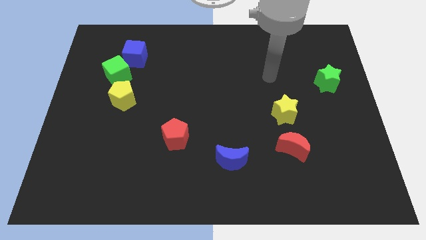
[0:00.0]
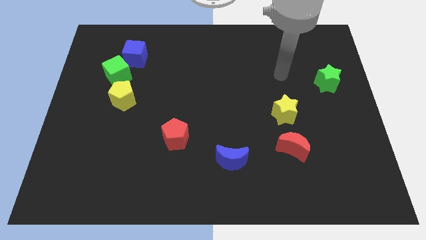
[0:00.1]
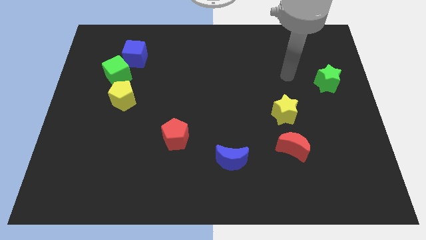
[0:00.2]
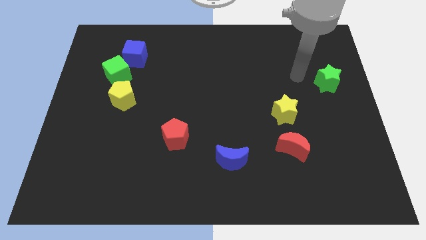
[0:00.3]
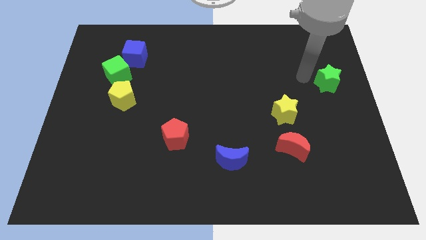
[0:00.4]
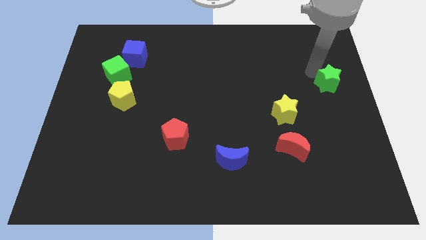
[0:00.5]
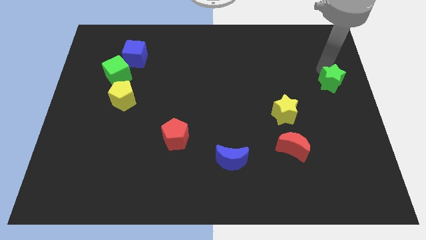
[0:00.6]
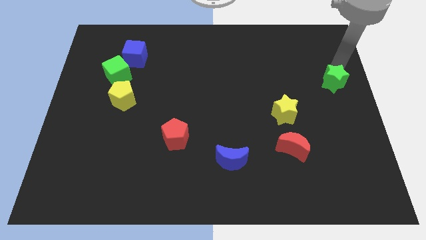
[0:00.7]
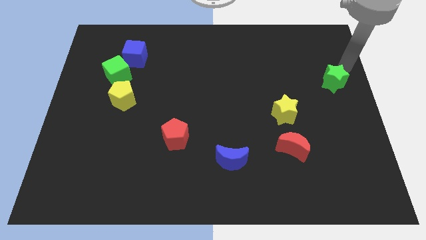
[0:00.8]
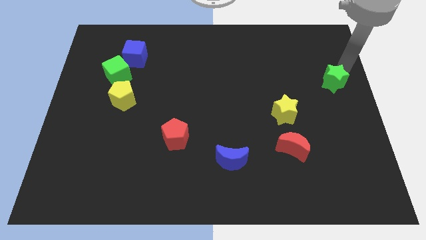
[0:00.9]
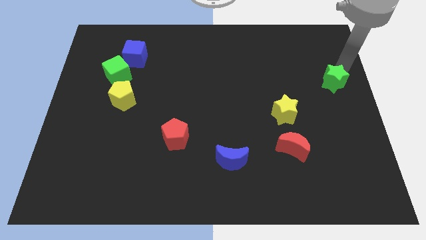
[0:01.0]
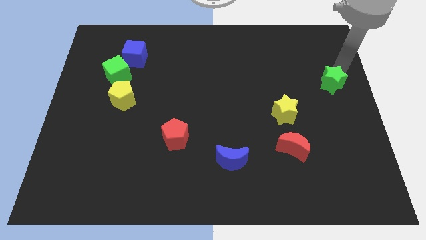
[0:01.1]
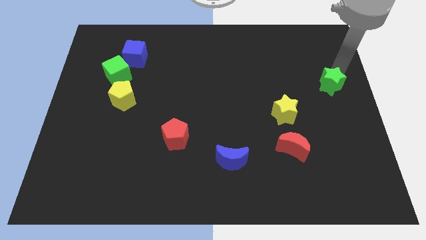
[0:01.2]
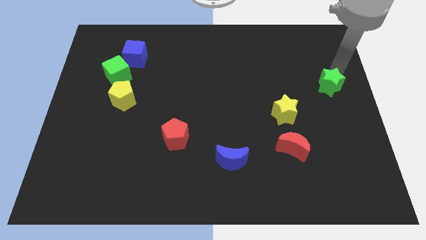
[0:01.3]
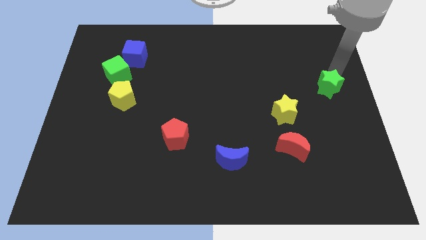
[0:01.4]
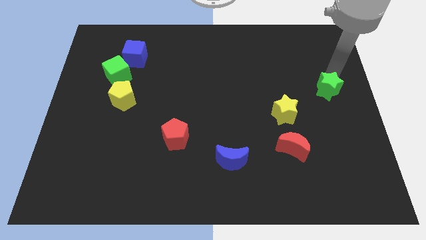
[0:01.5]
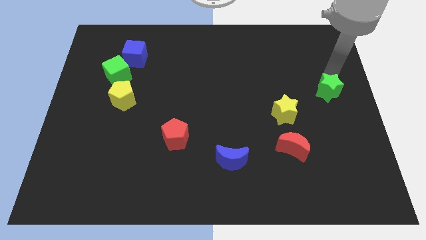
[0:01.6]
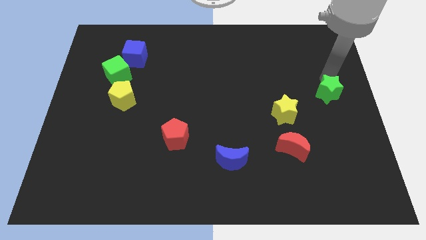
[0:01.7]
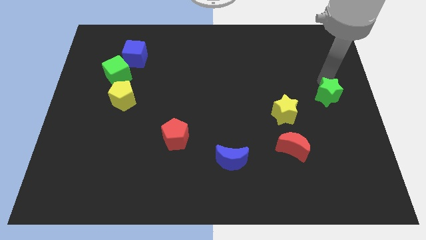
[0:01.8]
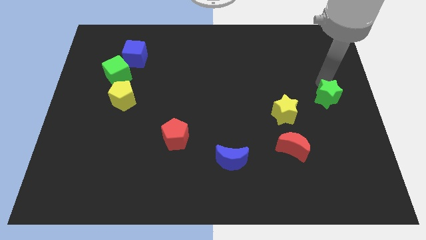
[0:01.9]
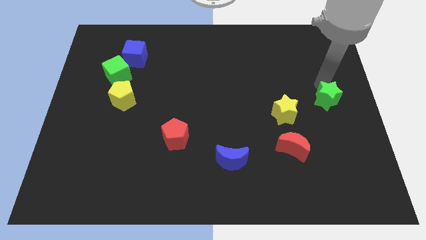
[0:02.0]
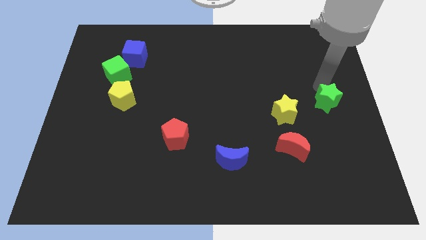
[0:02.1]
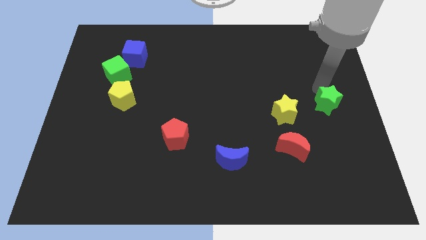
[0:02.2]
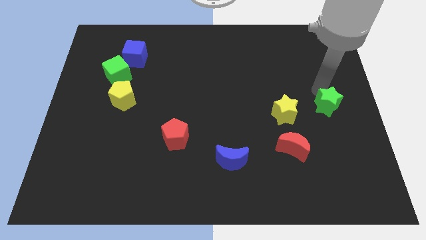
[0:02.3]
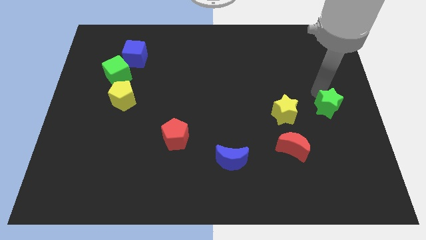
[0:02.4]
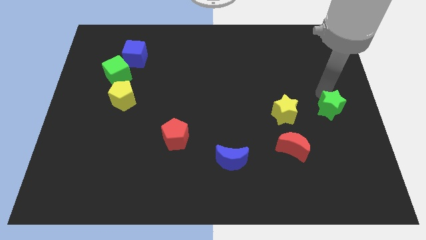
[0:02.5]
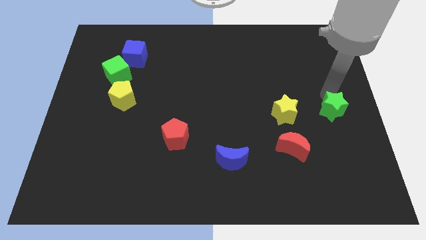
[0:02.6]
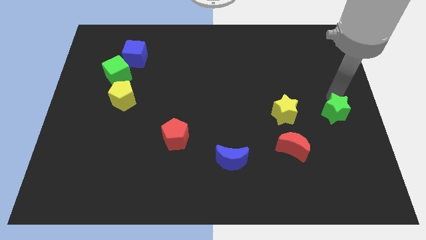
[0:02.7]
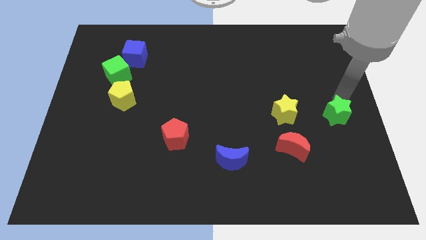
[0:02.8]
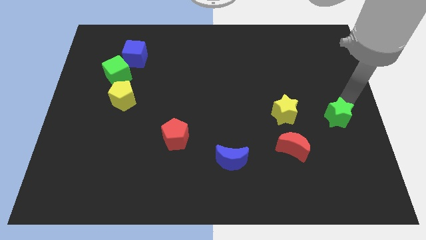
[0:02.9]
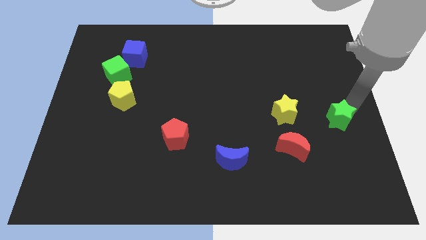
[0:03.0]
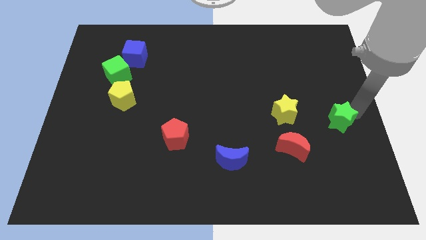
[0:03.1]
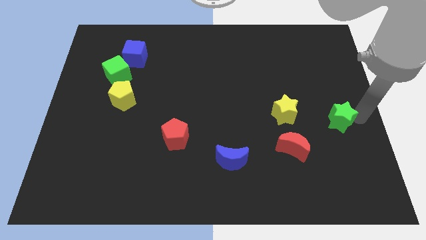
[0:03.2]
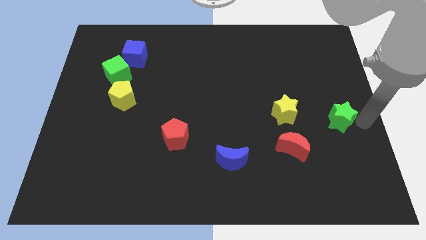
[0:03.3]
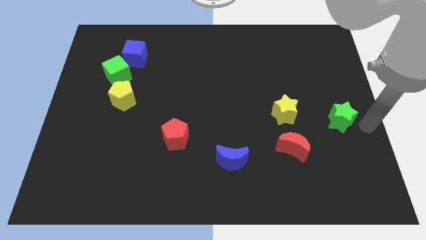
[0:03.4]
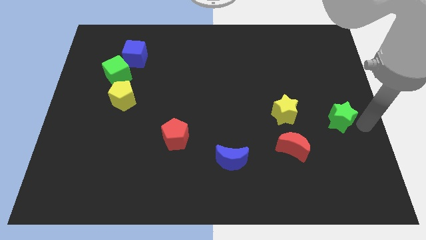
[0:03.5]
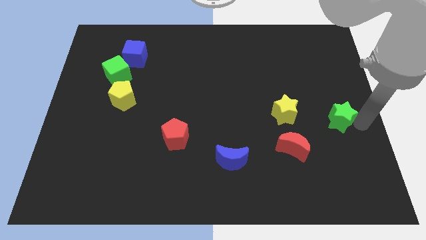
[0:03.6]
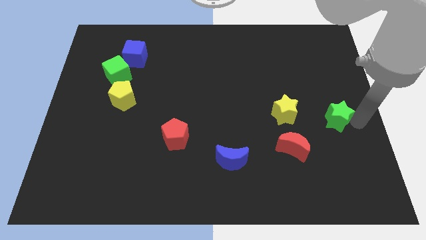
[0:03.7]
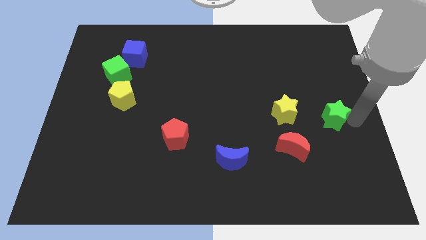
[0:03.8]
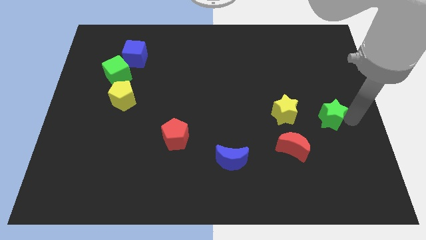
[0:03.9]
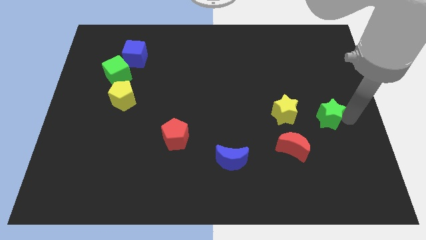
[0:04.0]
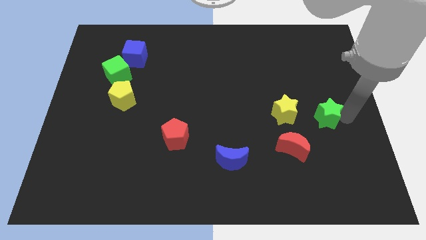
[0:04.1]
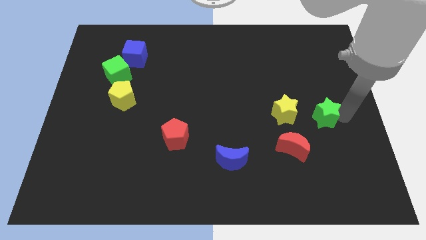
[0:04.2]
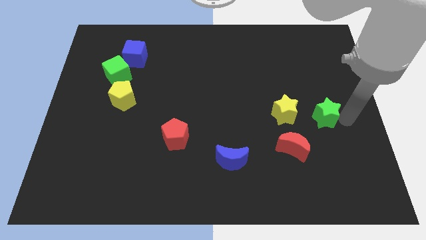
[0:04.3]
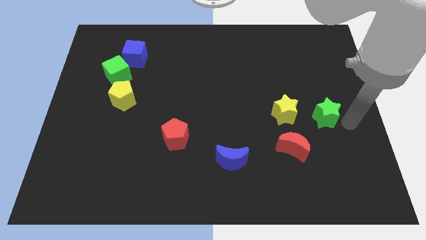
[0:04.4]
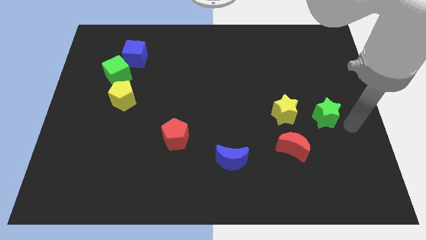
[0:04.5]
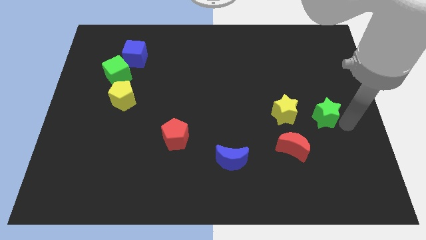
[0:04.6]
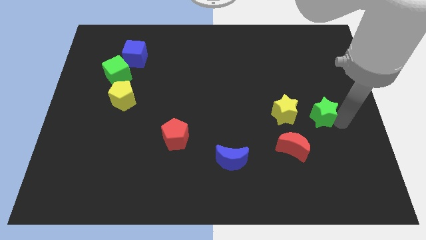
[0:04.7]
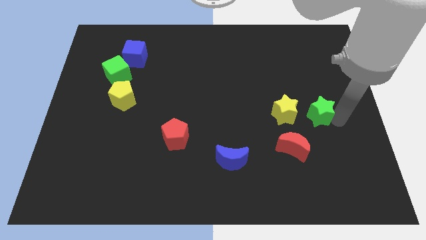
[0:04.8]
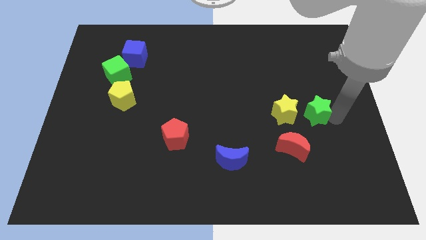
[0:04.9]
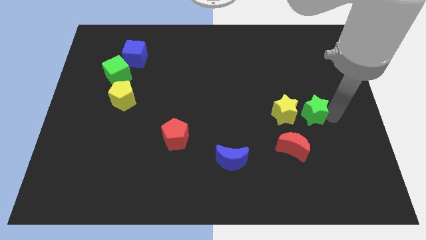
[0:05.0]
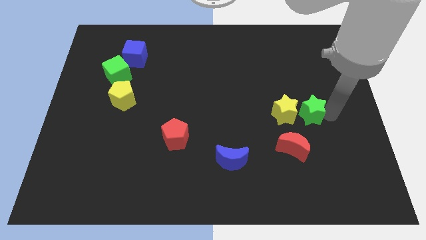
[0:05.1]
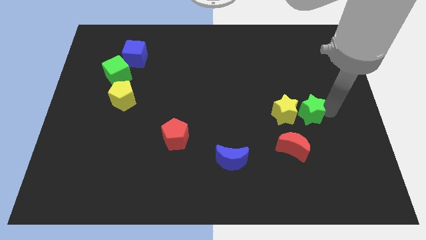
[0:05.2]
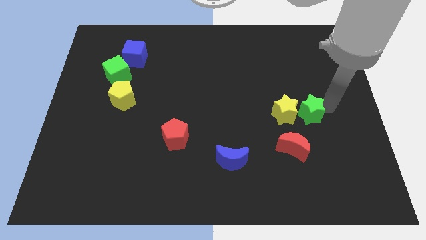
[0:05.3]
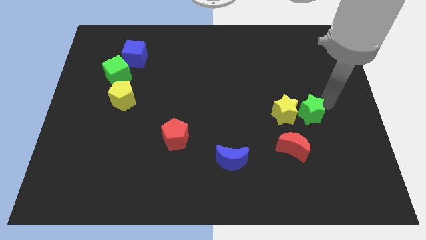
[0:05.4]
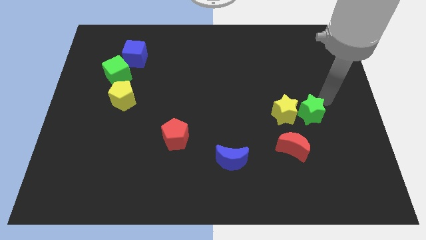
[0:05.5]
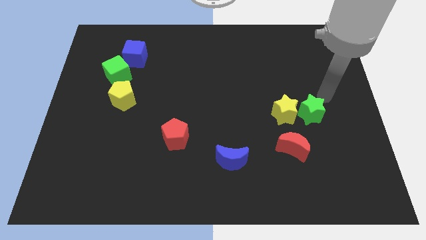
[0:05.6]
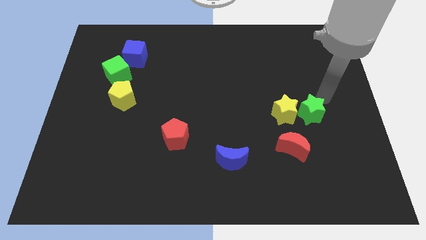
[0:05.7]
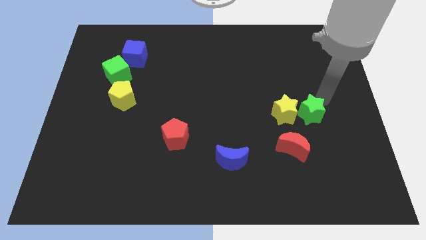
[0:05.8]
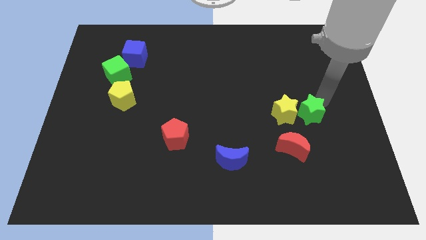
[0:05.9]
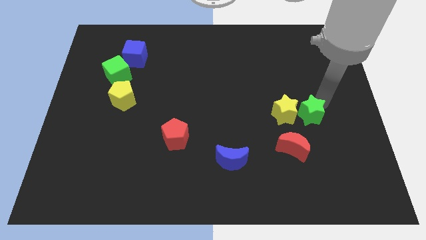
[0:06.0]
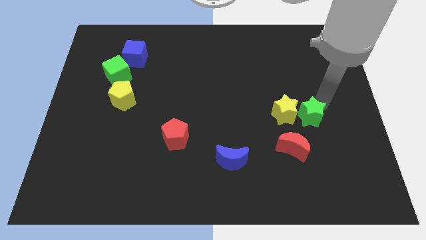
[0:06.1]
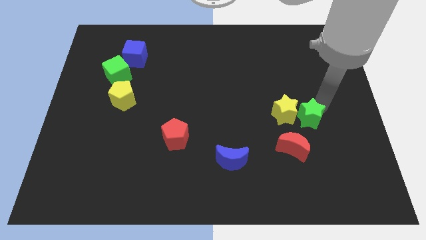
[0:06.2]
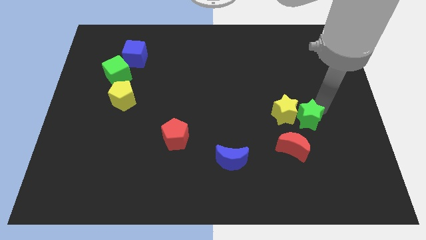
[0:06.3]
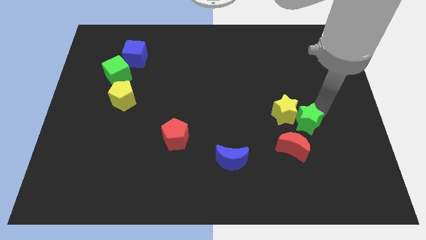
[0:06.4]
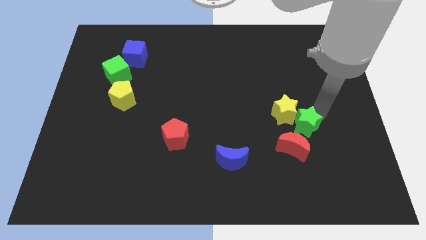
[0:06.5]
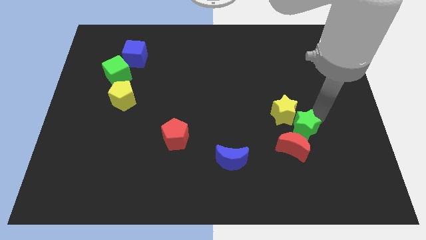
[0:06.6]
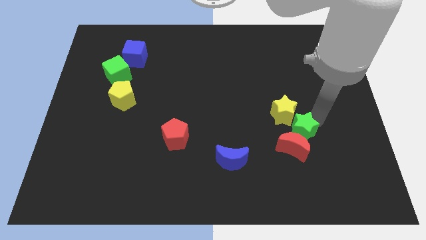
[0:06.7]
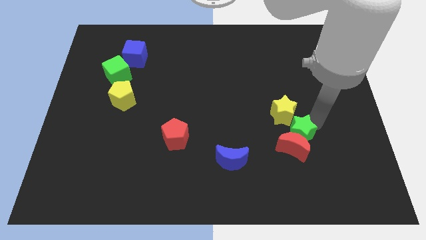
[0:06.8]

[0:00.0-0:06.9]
move the green star to the top left of the red moon
